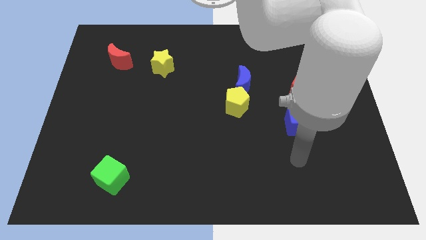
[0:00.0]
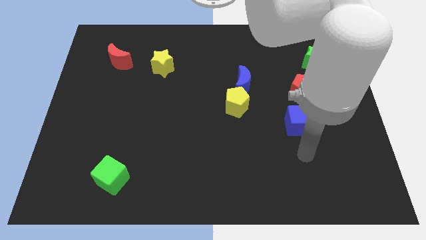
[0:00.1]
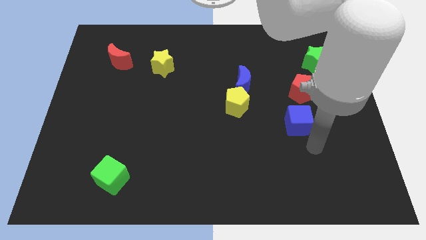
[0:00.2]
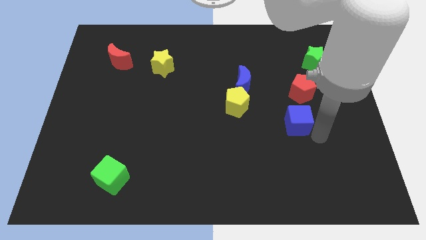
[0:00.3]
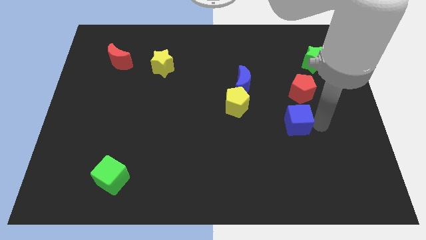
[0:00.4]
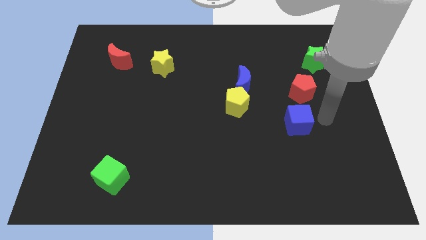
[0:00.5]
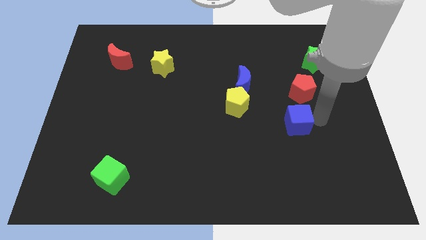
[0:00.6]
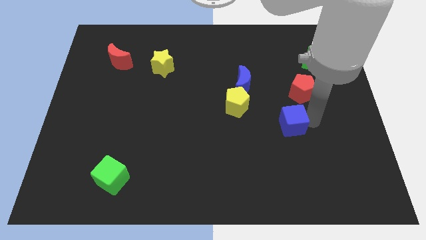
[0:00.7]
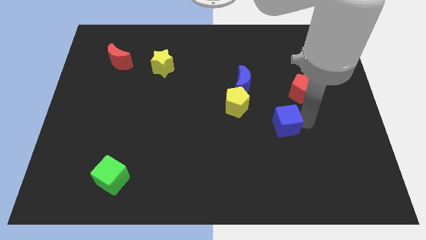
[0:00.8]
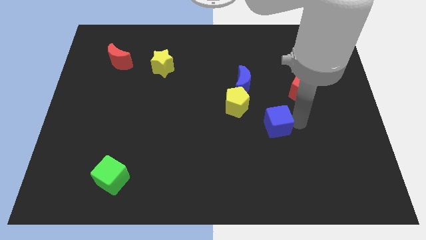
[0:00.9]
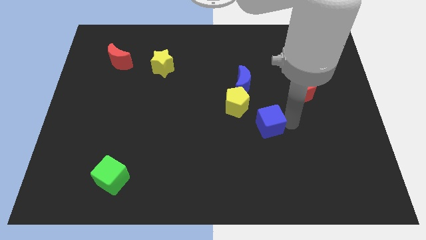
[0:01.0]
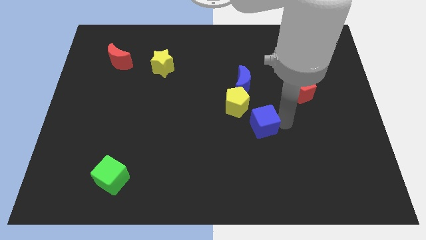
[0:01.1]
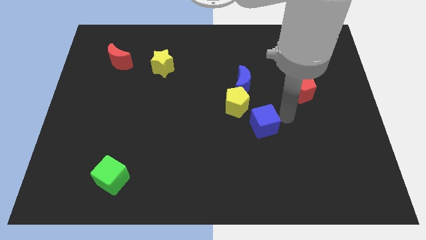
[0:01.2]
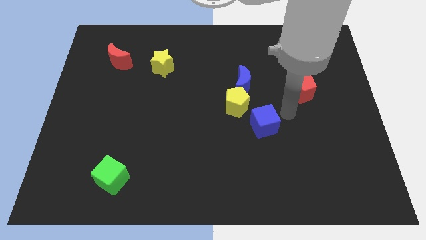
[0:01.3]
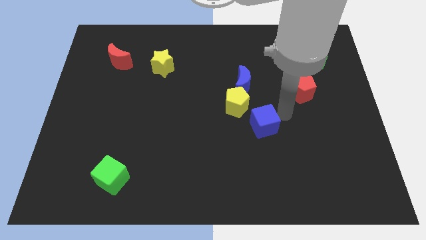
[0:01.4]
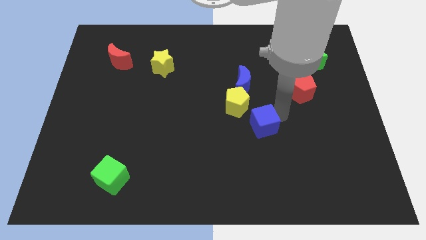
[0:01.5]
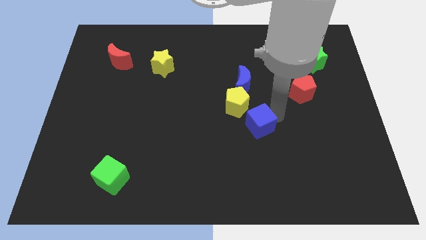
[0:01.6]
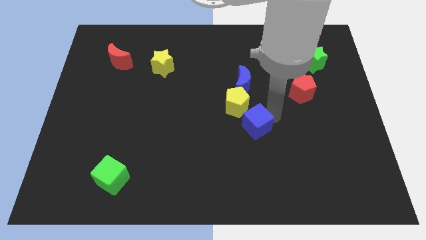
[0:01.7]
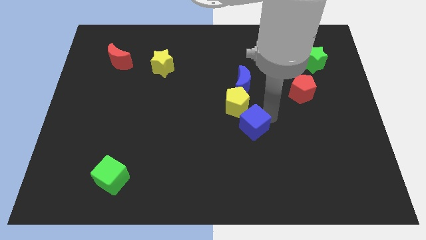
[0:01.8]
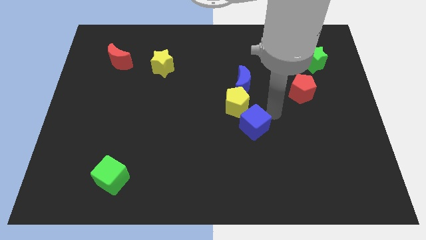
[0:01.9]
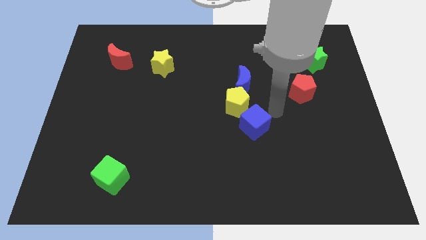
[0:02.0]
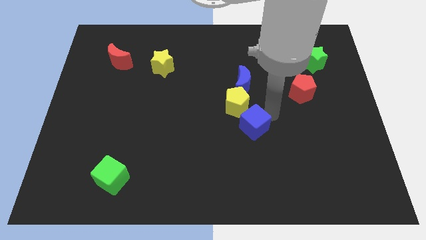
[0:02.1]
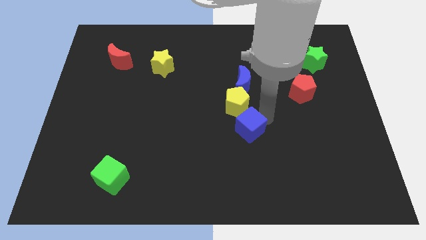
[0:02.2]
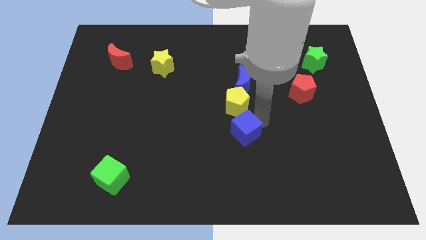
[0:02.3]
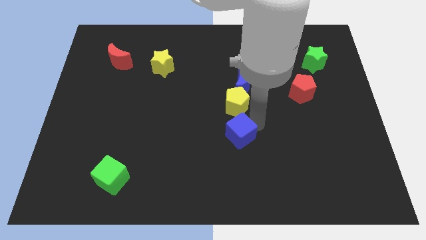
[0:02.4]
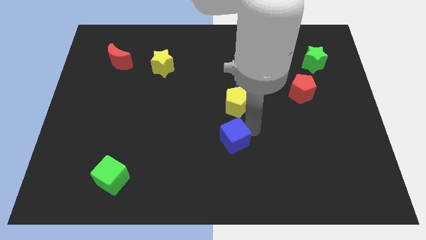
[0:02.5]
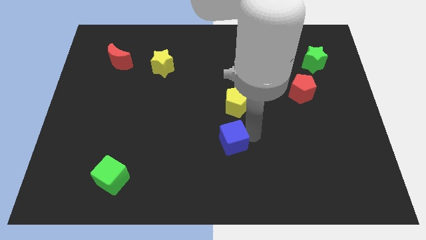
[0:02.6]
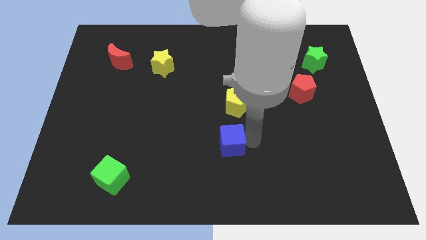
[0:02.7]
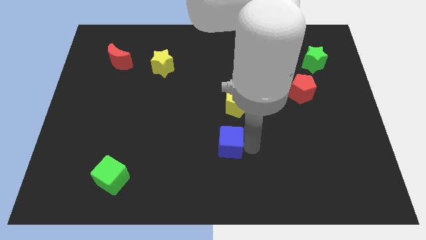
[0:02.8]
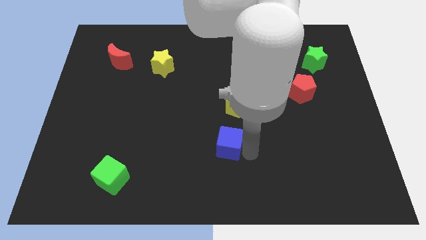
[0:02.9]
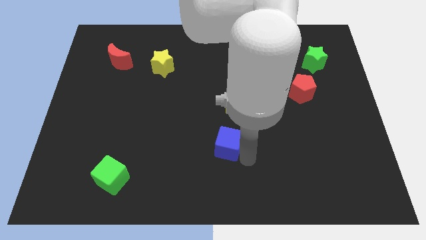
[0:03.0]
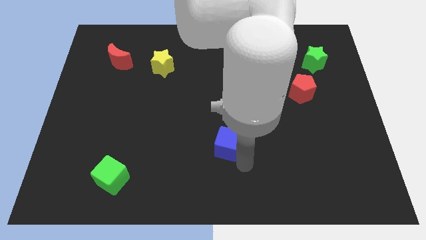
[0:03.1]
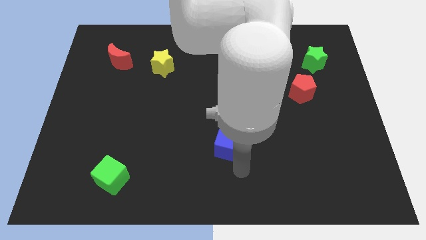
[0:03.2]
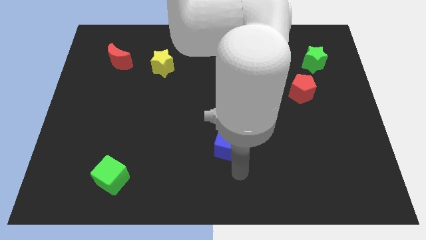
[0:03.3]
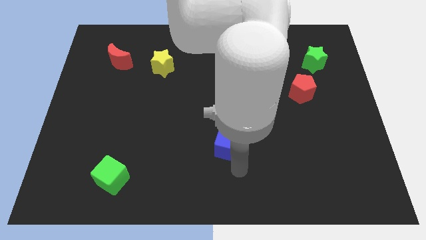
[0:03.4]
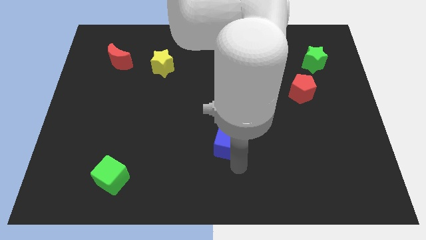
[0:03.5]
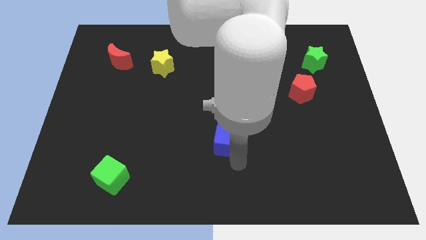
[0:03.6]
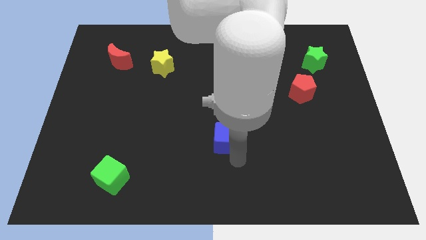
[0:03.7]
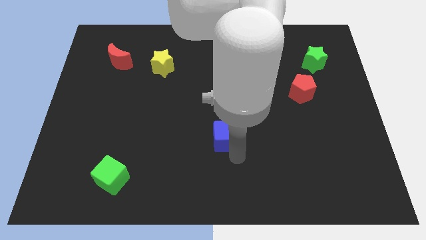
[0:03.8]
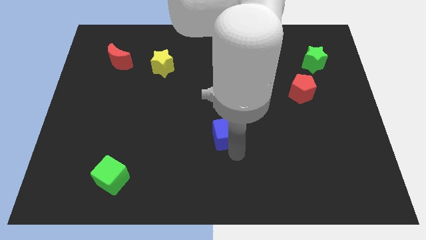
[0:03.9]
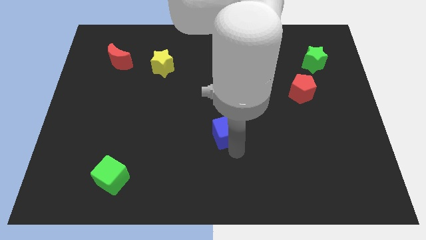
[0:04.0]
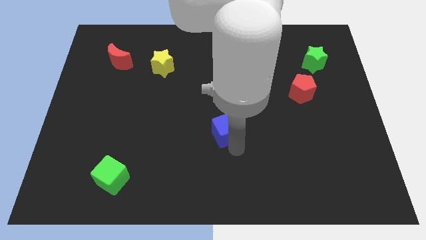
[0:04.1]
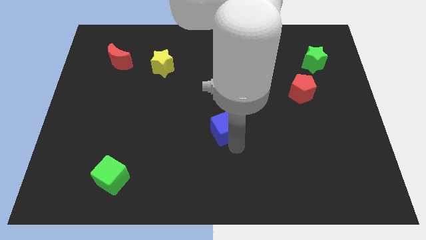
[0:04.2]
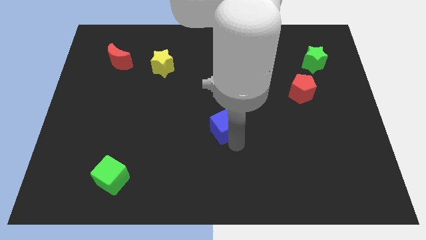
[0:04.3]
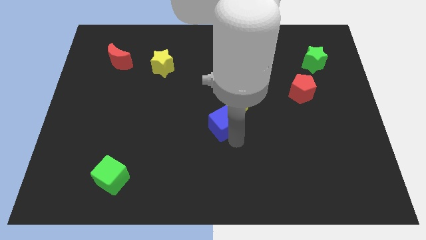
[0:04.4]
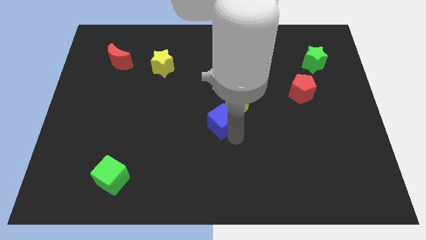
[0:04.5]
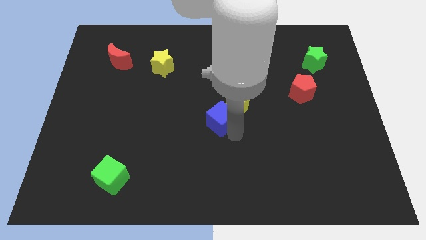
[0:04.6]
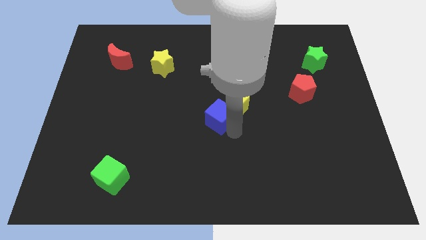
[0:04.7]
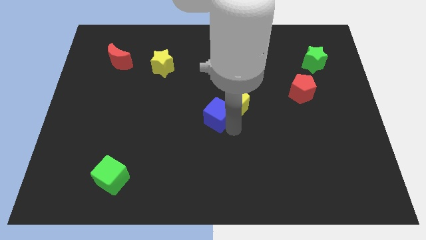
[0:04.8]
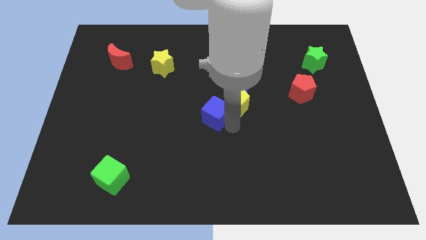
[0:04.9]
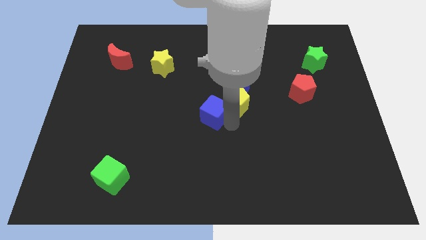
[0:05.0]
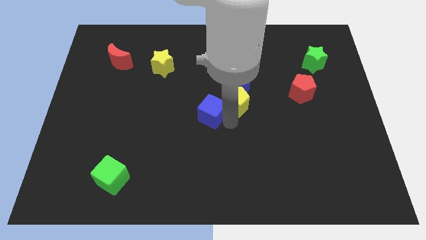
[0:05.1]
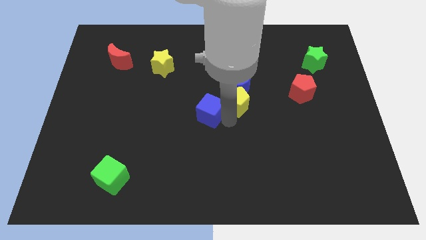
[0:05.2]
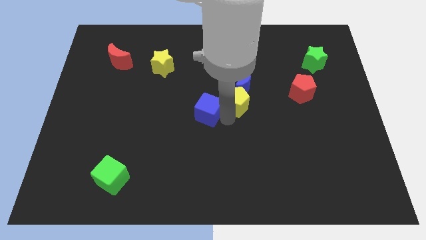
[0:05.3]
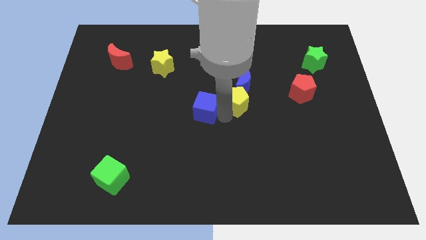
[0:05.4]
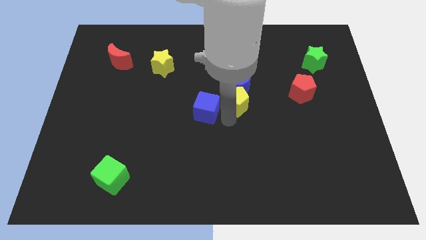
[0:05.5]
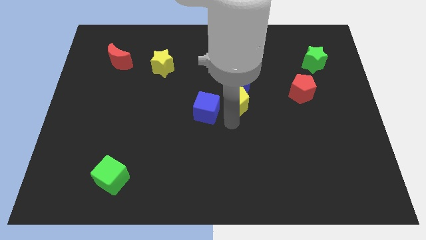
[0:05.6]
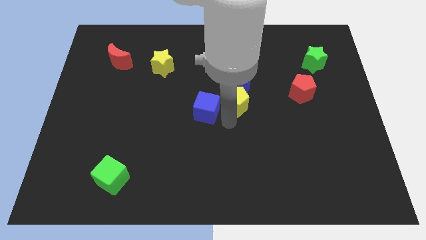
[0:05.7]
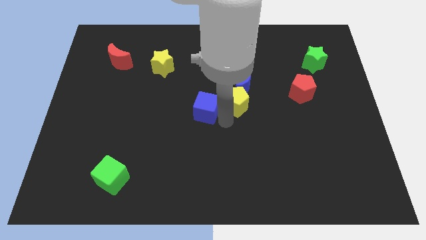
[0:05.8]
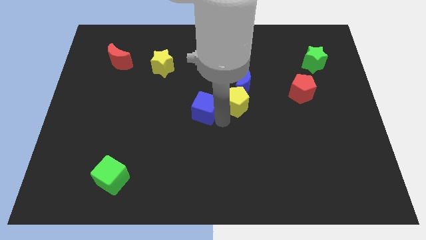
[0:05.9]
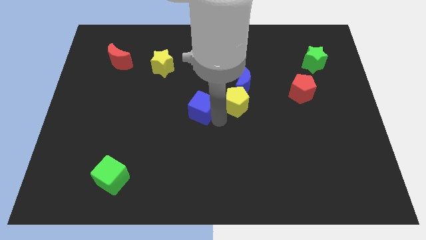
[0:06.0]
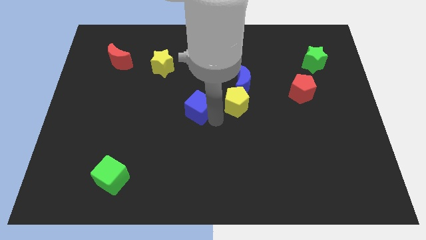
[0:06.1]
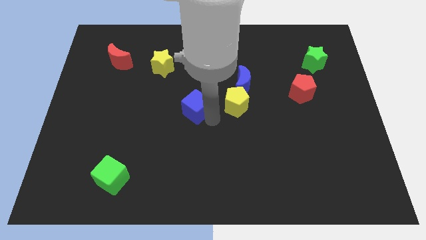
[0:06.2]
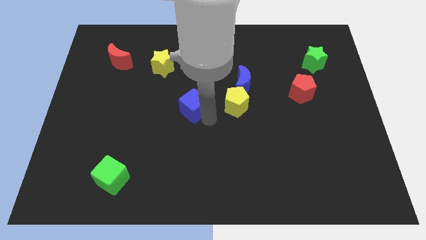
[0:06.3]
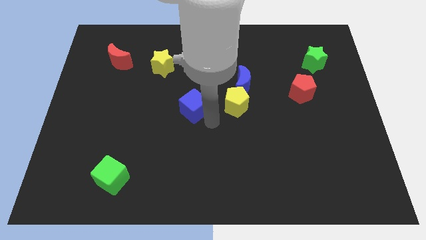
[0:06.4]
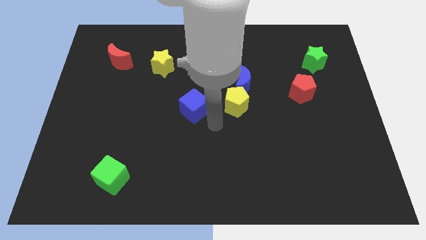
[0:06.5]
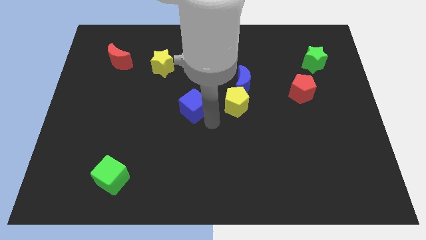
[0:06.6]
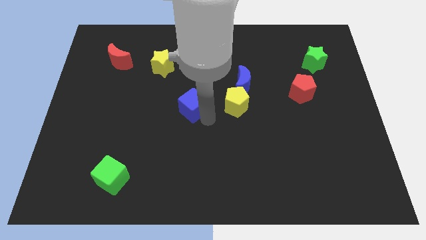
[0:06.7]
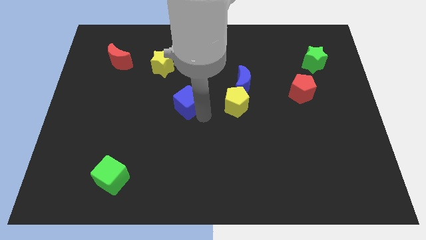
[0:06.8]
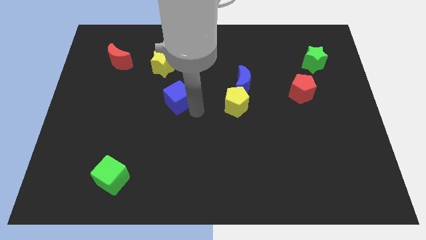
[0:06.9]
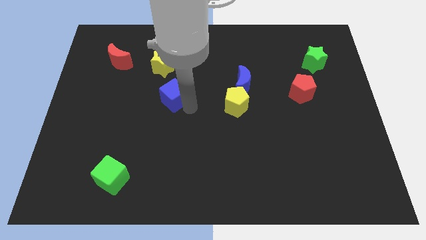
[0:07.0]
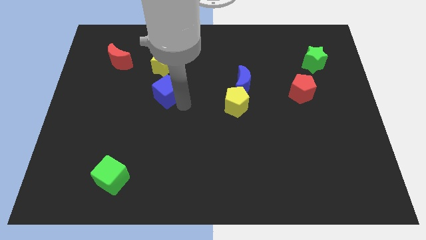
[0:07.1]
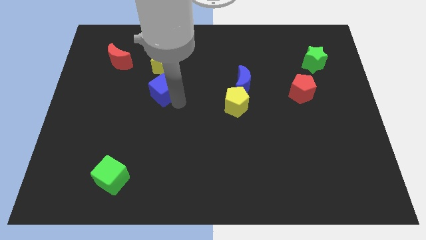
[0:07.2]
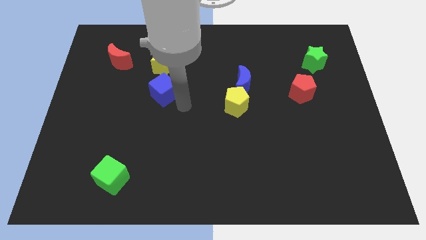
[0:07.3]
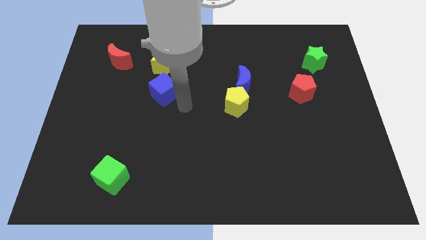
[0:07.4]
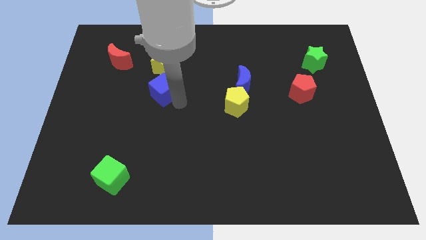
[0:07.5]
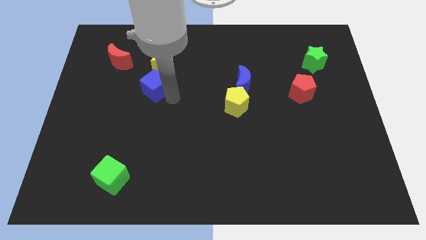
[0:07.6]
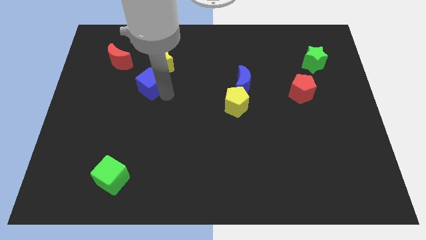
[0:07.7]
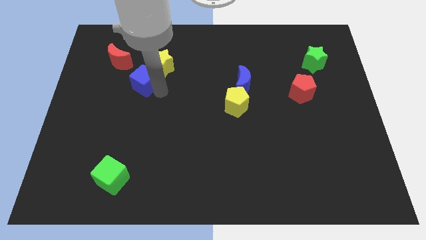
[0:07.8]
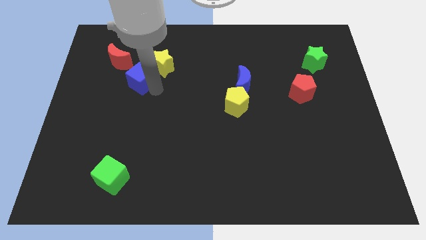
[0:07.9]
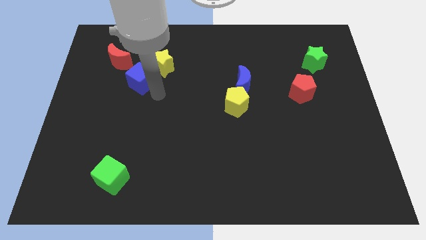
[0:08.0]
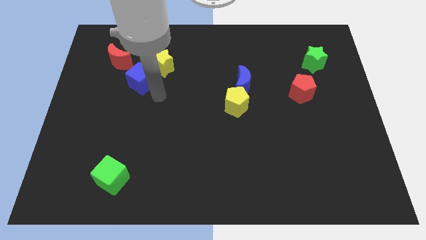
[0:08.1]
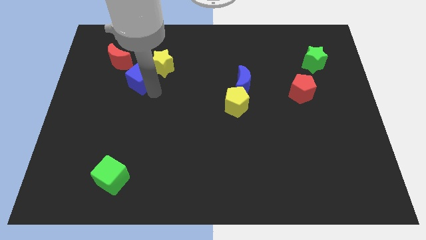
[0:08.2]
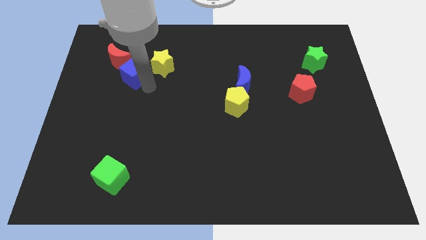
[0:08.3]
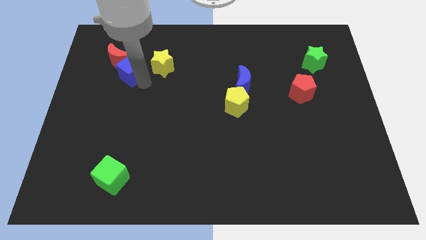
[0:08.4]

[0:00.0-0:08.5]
slide the blue cube to the red moon
